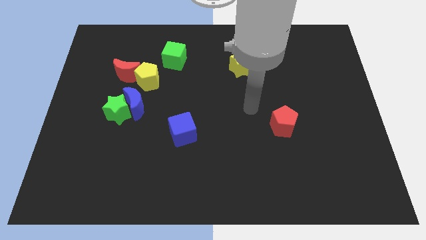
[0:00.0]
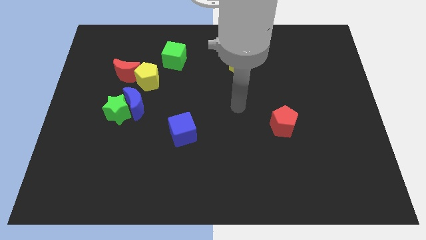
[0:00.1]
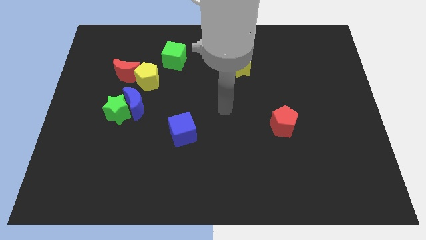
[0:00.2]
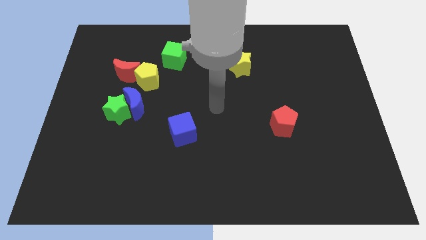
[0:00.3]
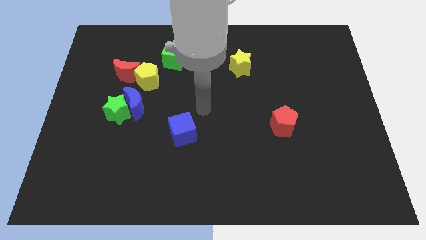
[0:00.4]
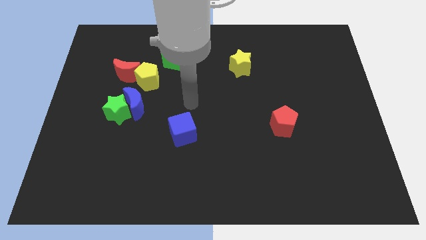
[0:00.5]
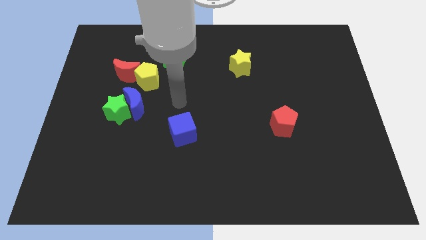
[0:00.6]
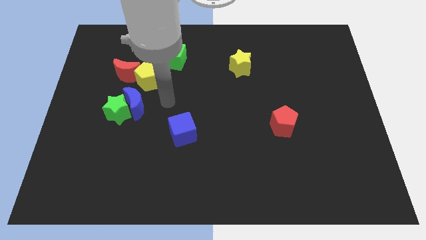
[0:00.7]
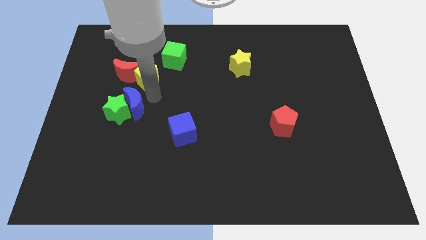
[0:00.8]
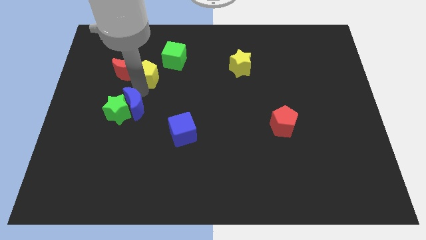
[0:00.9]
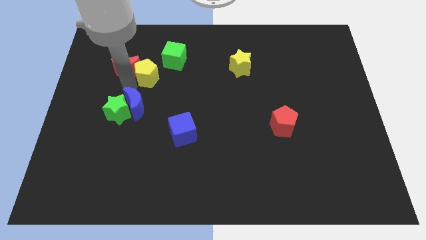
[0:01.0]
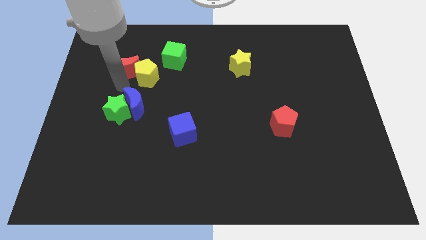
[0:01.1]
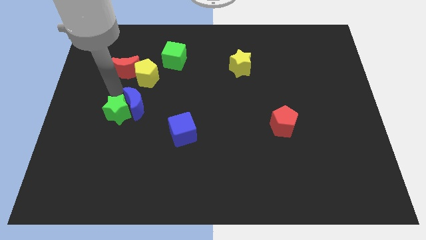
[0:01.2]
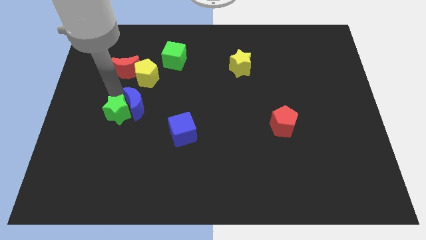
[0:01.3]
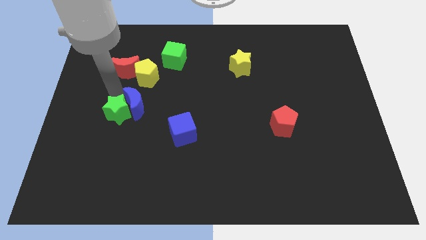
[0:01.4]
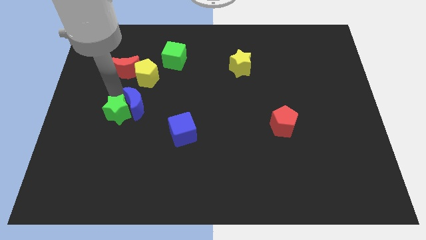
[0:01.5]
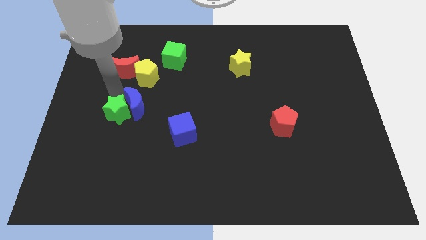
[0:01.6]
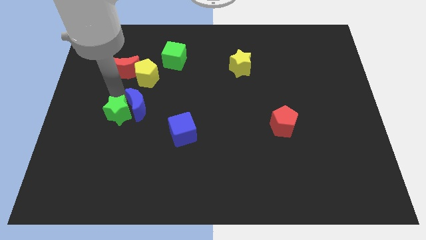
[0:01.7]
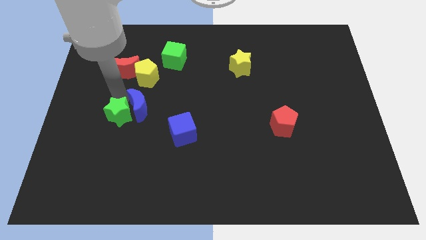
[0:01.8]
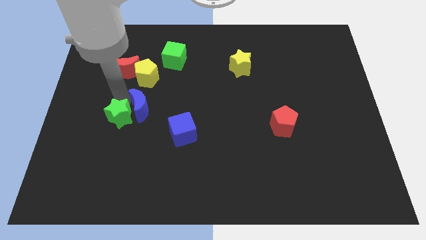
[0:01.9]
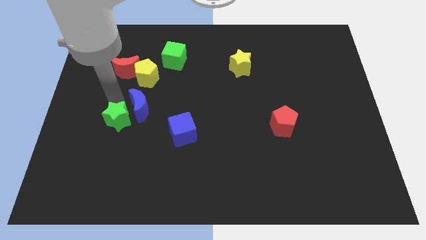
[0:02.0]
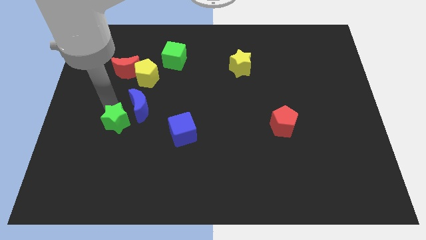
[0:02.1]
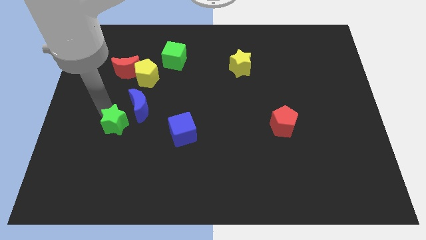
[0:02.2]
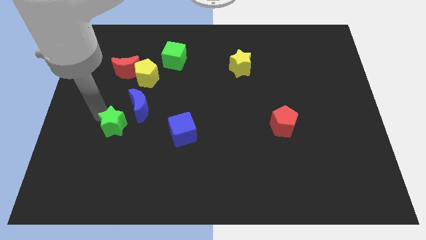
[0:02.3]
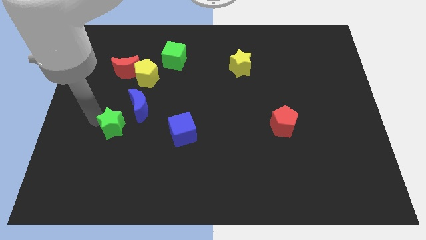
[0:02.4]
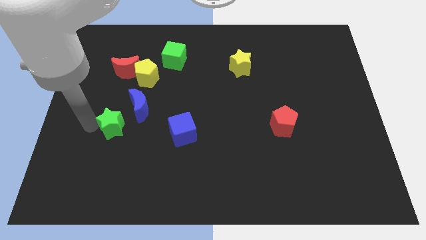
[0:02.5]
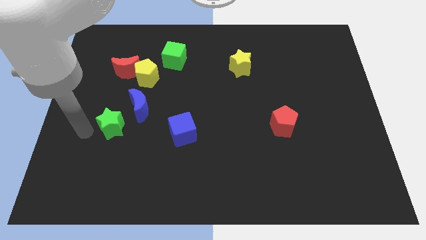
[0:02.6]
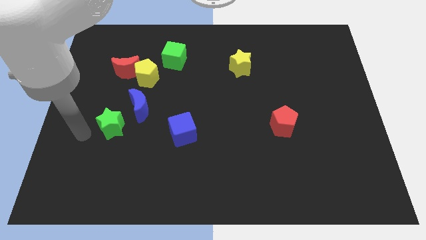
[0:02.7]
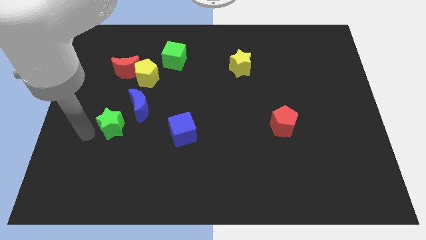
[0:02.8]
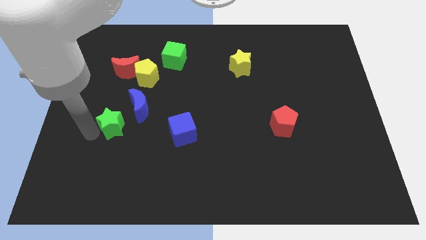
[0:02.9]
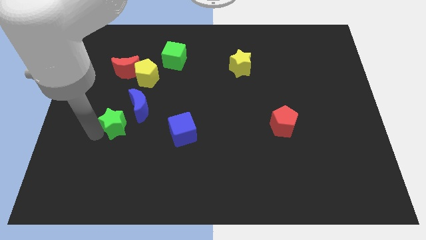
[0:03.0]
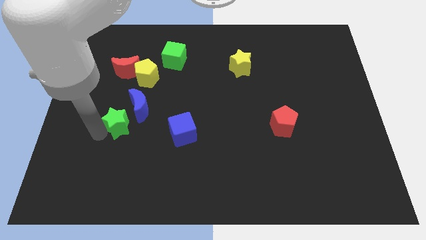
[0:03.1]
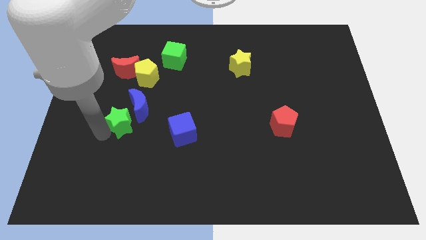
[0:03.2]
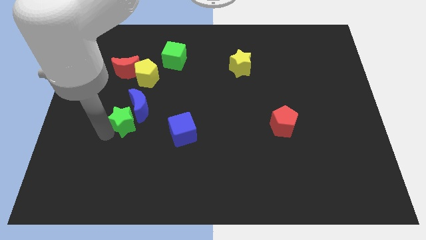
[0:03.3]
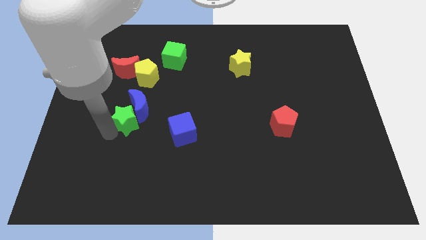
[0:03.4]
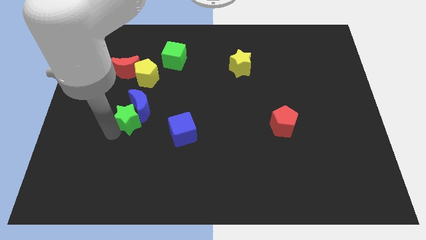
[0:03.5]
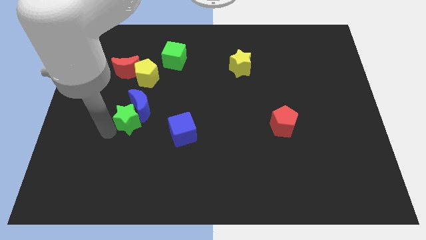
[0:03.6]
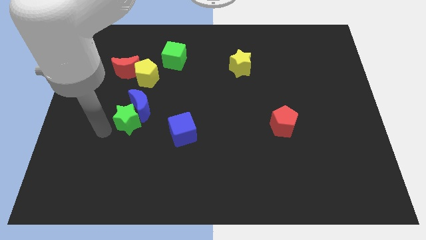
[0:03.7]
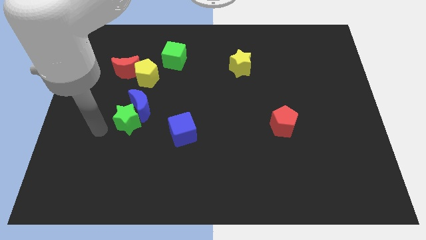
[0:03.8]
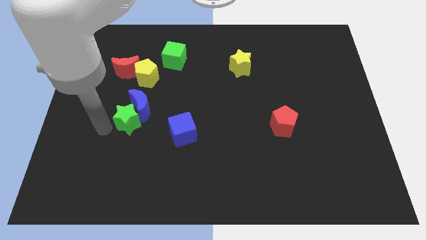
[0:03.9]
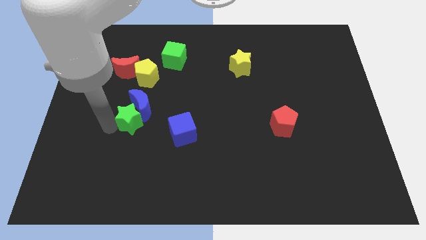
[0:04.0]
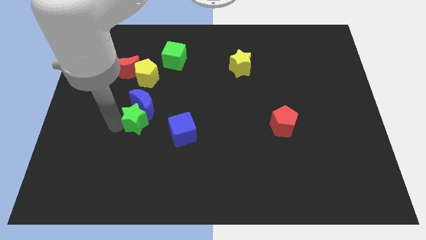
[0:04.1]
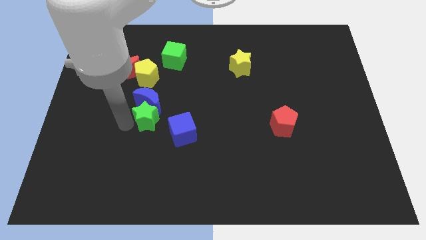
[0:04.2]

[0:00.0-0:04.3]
slightly push the green star right

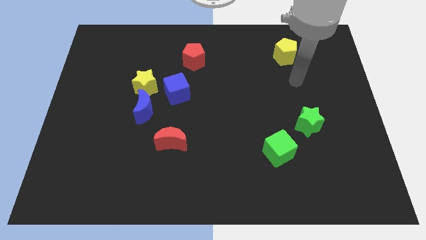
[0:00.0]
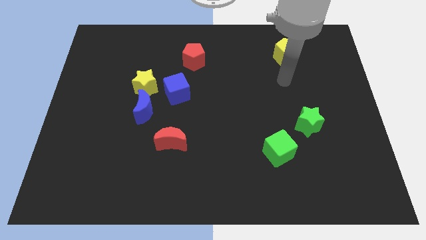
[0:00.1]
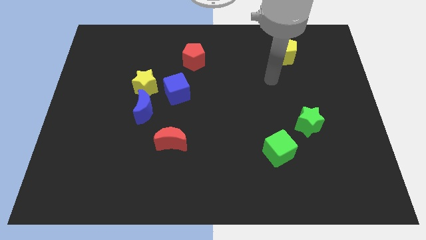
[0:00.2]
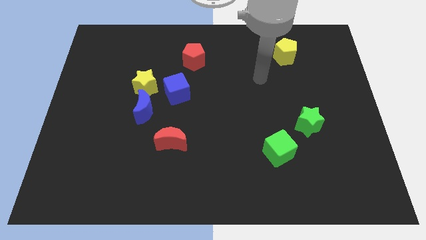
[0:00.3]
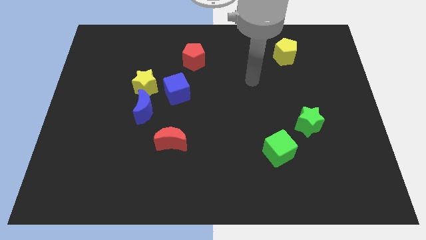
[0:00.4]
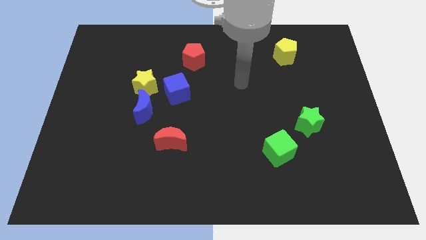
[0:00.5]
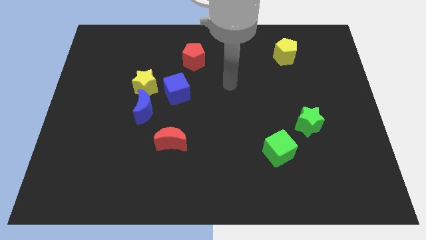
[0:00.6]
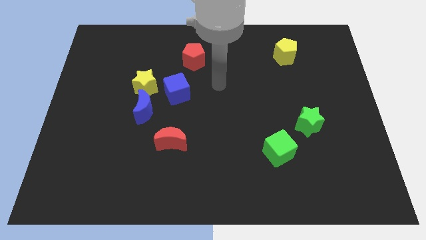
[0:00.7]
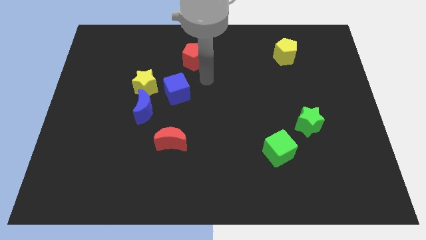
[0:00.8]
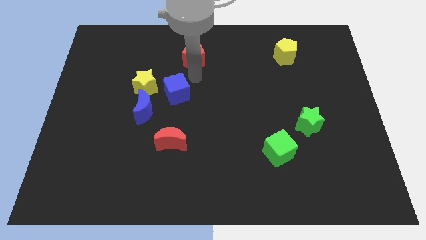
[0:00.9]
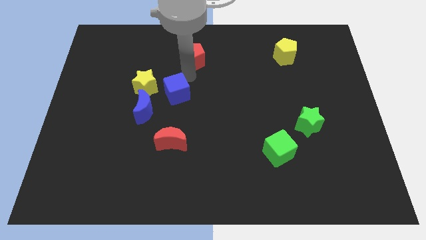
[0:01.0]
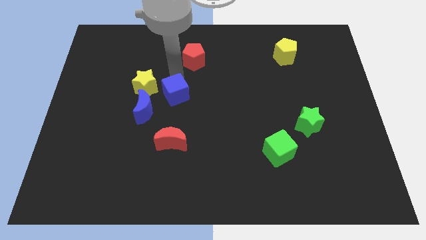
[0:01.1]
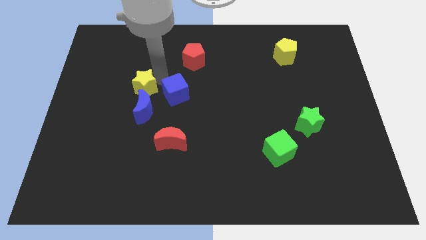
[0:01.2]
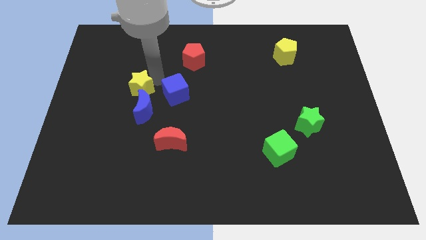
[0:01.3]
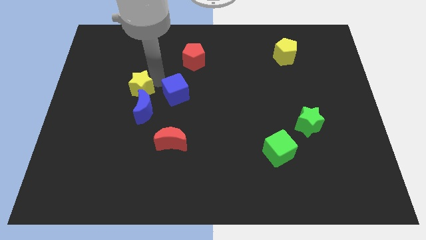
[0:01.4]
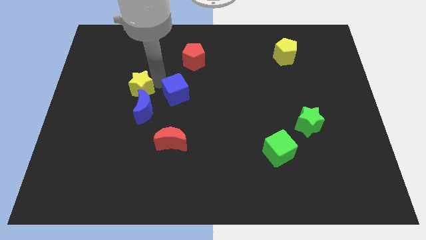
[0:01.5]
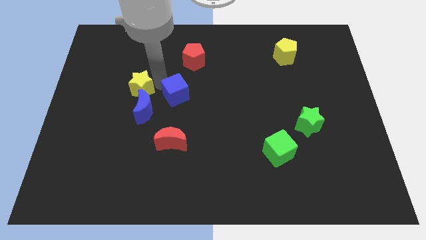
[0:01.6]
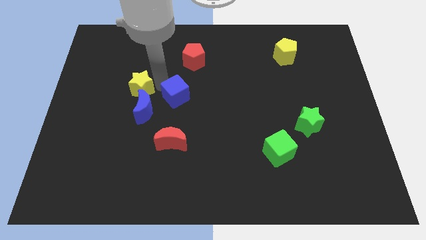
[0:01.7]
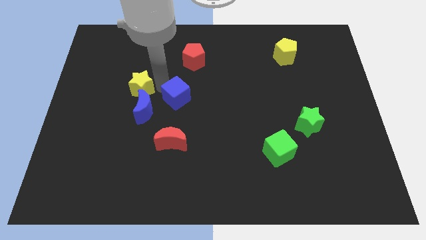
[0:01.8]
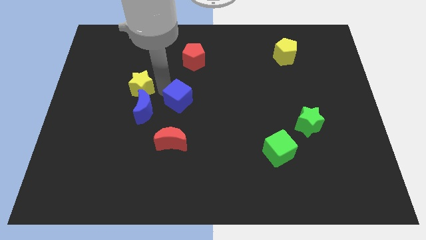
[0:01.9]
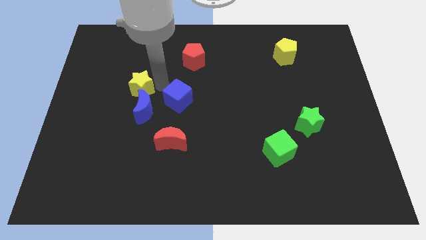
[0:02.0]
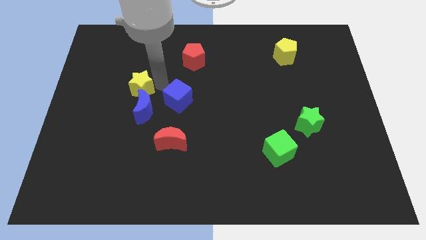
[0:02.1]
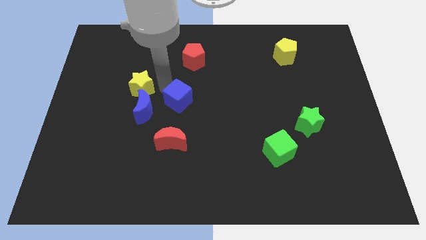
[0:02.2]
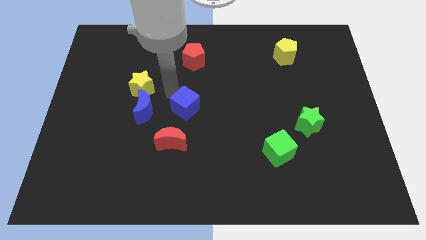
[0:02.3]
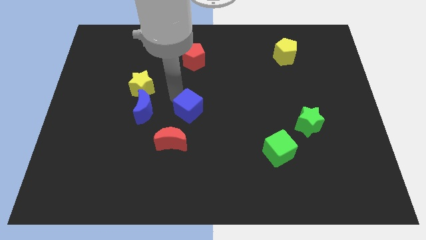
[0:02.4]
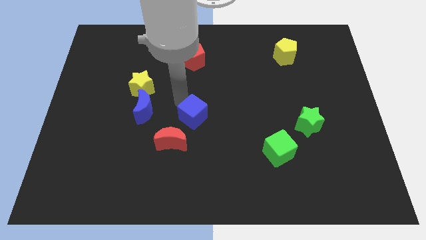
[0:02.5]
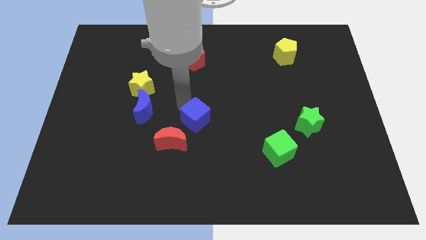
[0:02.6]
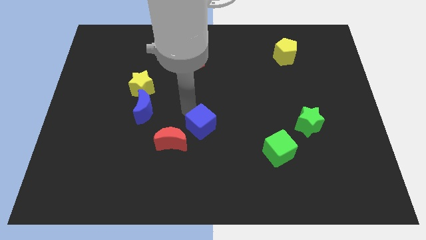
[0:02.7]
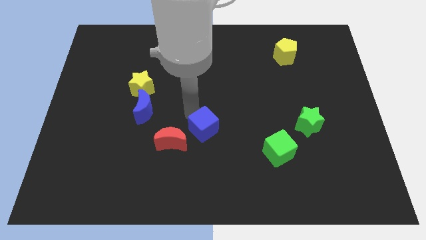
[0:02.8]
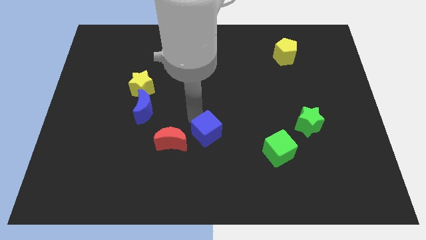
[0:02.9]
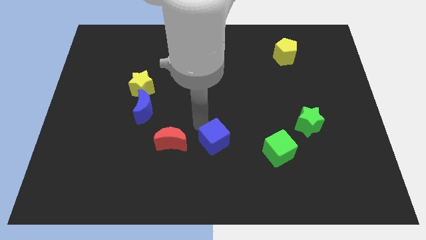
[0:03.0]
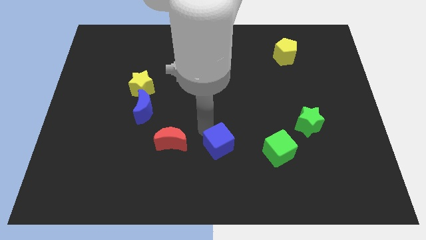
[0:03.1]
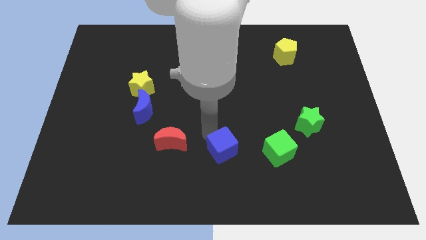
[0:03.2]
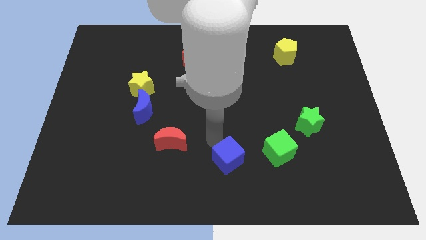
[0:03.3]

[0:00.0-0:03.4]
move the blue cube down and to the right diagonally

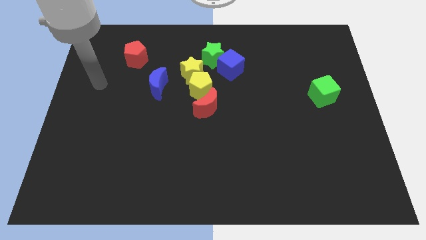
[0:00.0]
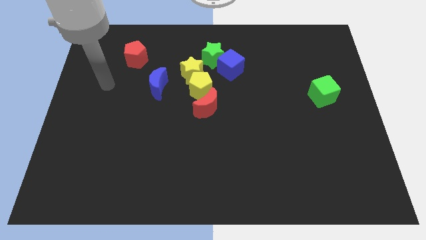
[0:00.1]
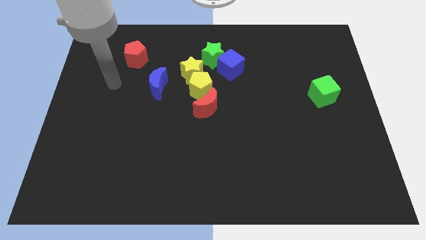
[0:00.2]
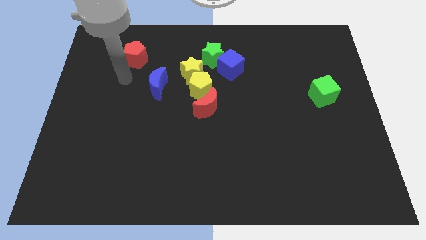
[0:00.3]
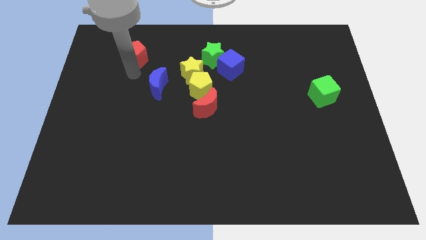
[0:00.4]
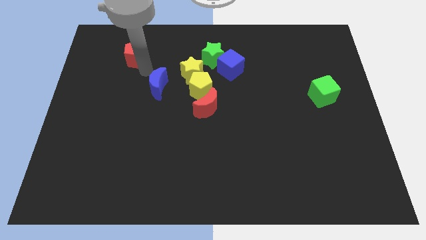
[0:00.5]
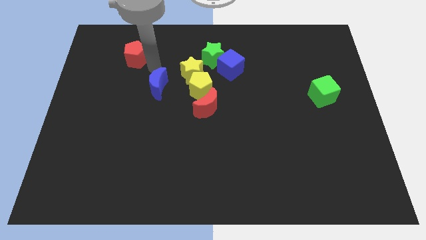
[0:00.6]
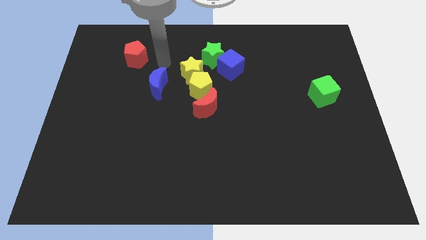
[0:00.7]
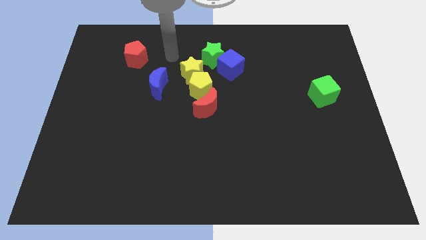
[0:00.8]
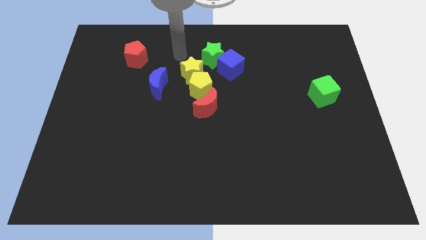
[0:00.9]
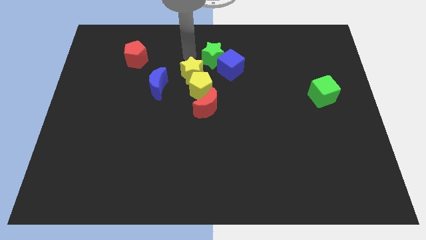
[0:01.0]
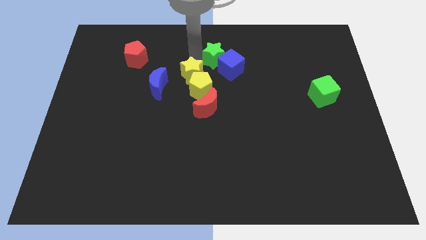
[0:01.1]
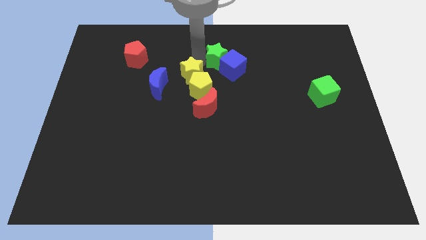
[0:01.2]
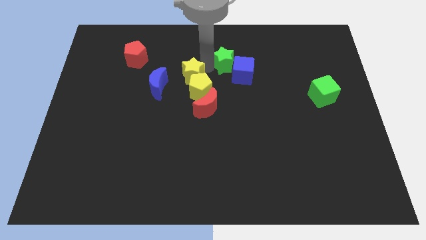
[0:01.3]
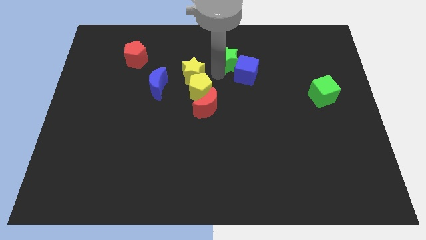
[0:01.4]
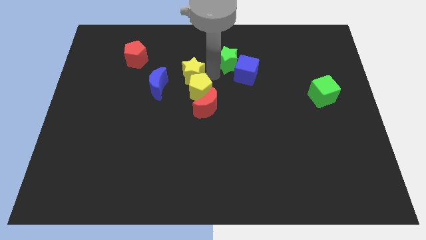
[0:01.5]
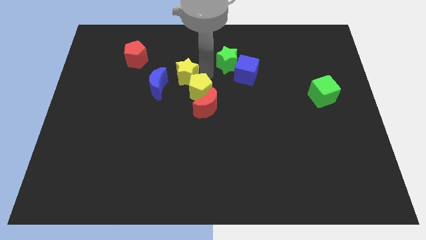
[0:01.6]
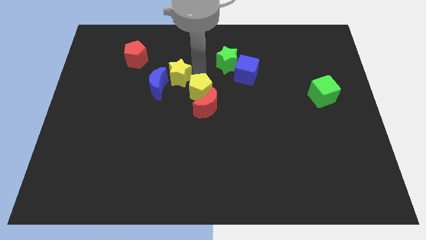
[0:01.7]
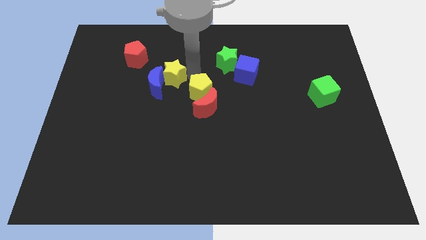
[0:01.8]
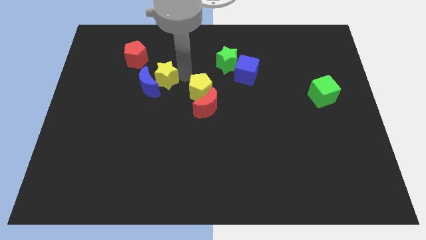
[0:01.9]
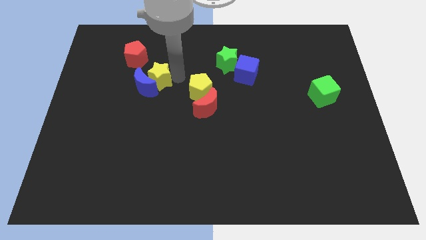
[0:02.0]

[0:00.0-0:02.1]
push the yellow star a little bit left
